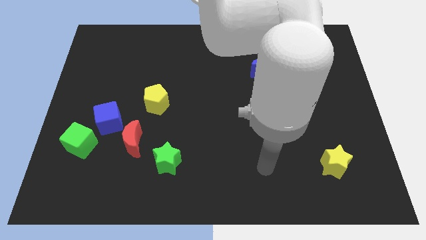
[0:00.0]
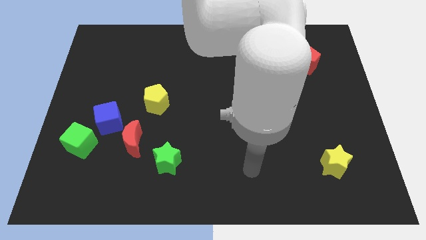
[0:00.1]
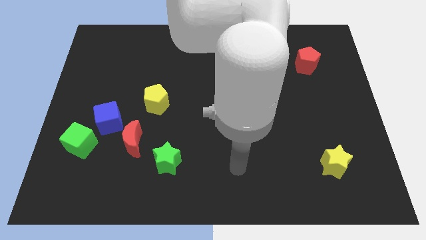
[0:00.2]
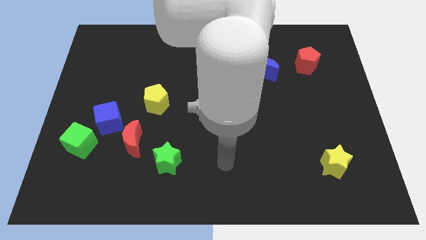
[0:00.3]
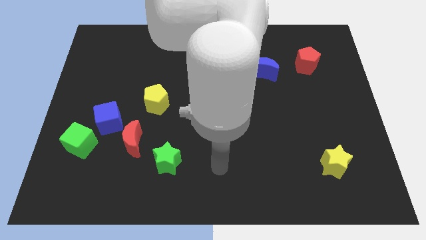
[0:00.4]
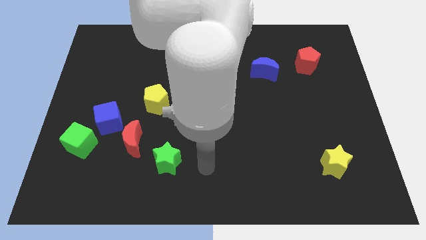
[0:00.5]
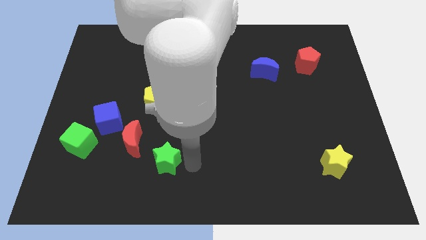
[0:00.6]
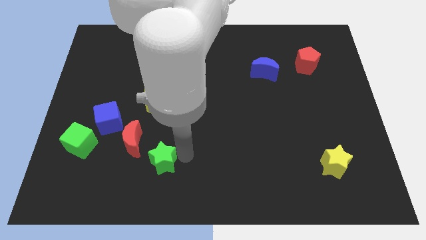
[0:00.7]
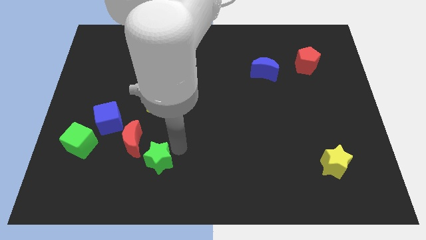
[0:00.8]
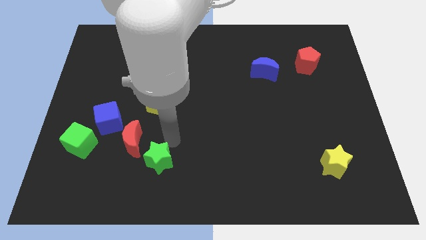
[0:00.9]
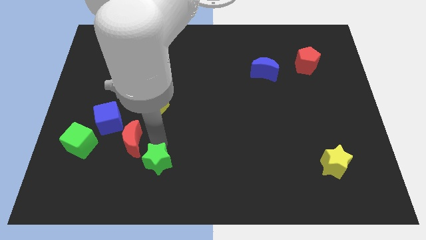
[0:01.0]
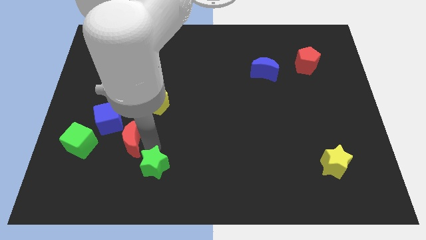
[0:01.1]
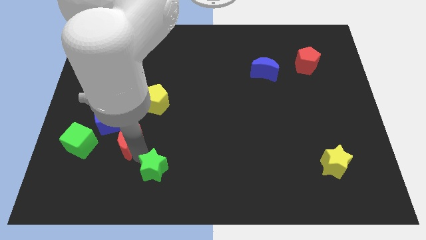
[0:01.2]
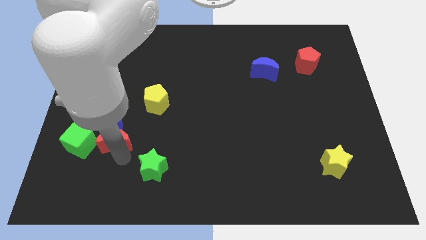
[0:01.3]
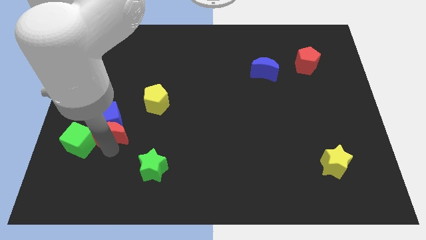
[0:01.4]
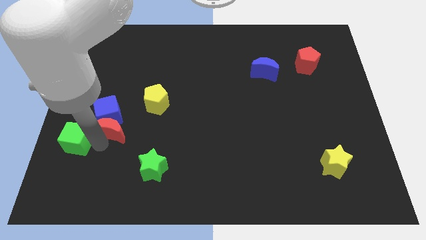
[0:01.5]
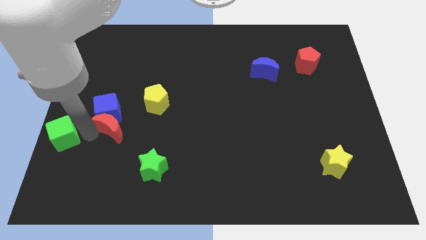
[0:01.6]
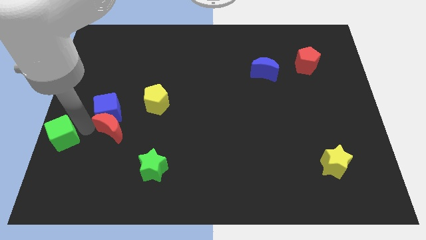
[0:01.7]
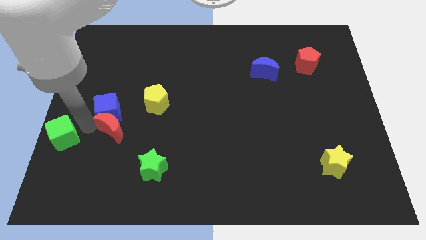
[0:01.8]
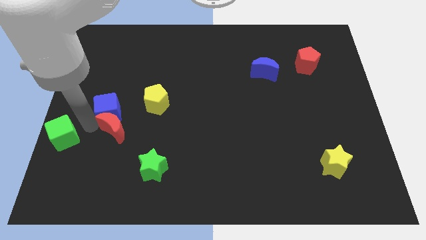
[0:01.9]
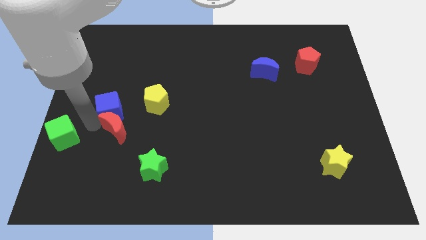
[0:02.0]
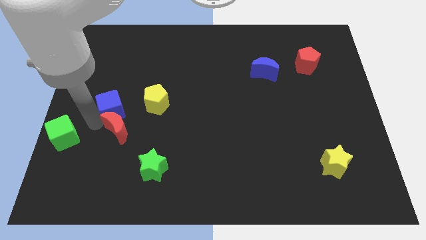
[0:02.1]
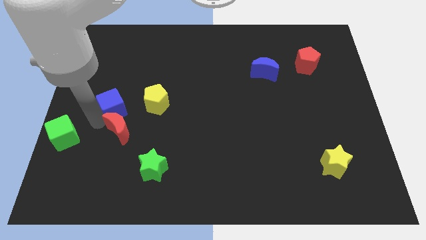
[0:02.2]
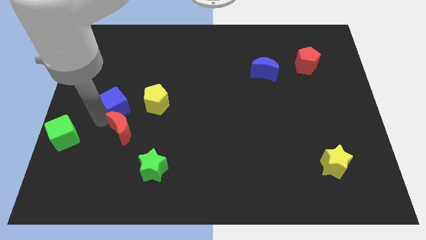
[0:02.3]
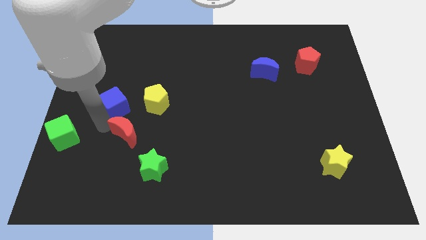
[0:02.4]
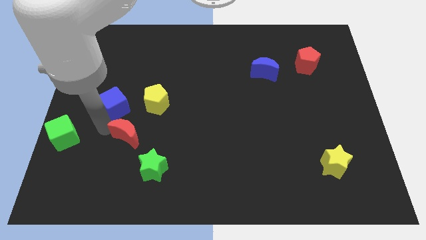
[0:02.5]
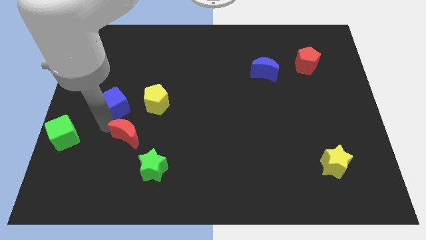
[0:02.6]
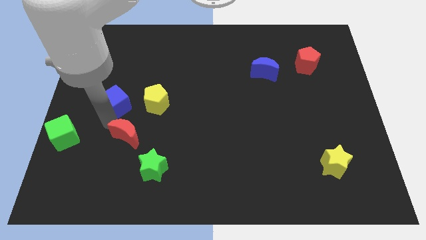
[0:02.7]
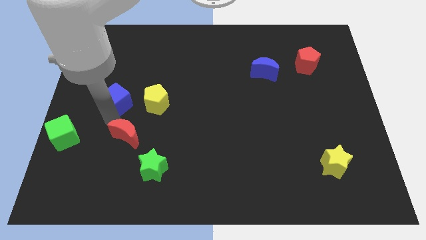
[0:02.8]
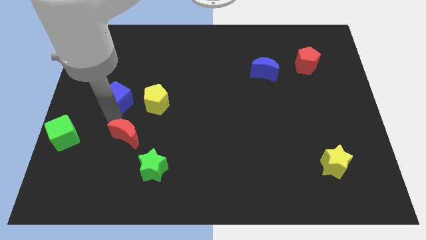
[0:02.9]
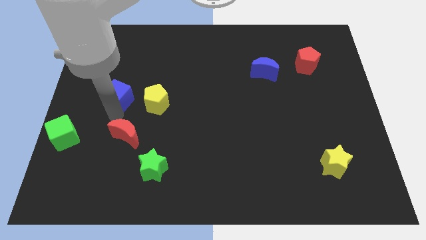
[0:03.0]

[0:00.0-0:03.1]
push the blue cube up somewhat

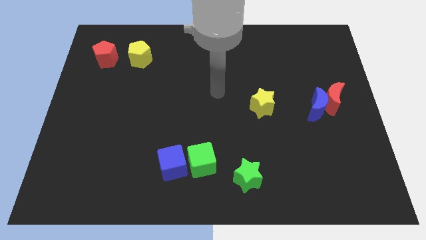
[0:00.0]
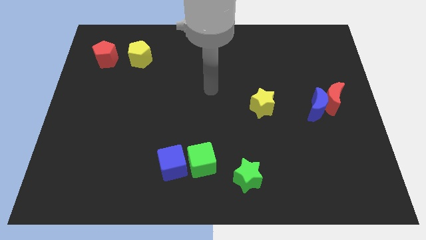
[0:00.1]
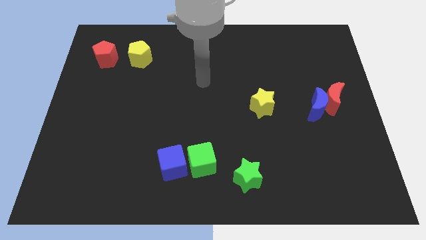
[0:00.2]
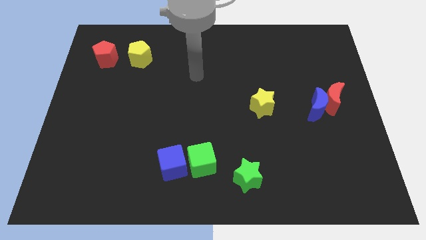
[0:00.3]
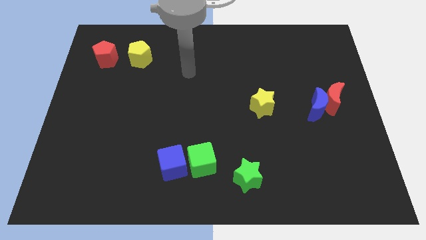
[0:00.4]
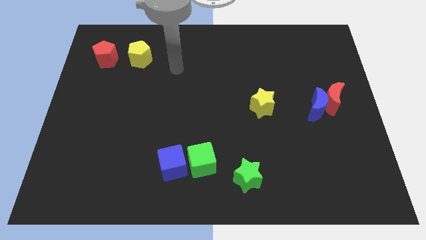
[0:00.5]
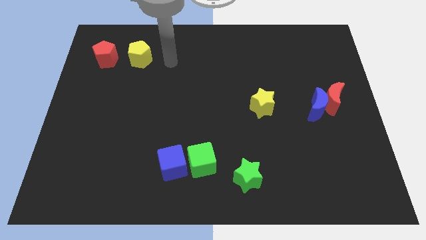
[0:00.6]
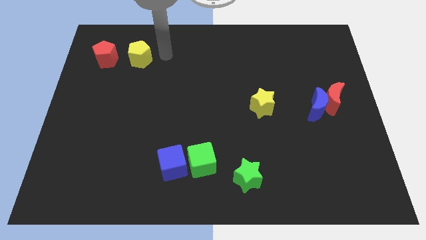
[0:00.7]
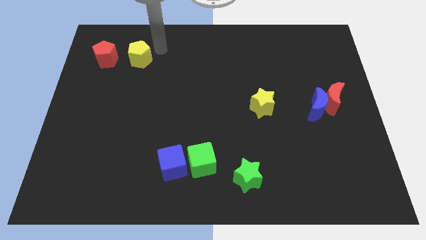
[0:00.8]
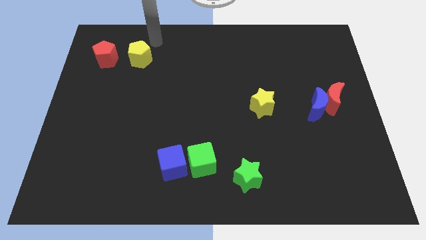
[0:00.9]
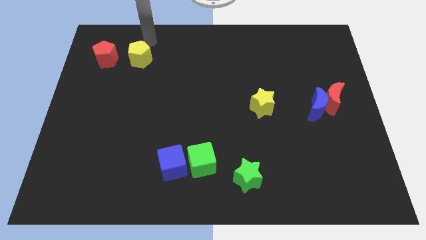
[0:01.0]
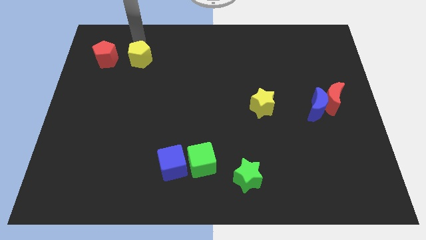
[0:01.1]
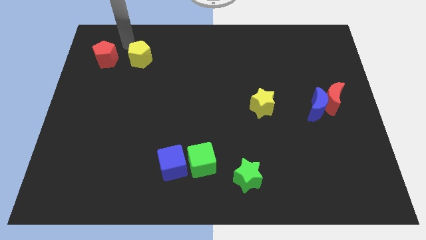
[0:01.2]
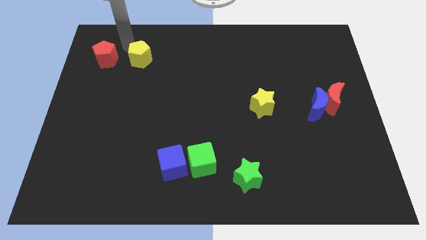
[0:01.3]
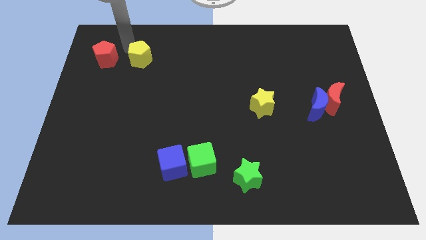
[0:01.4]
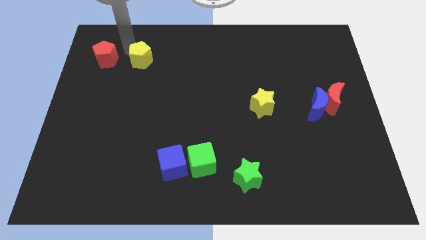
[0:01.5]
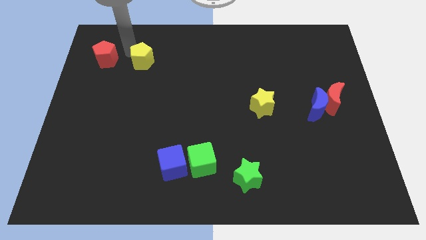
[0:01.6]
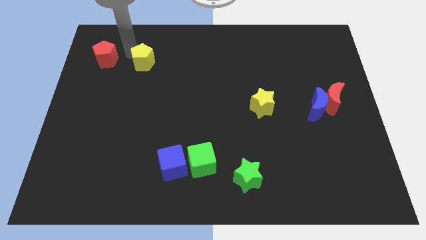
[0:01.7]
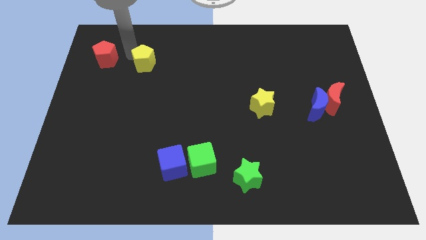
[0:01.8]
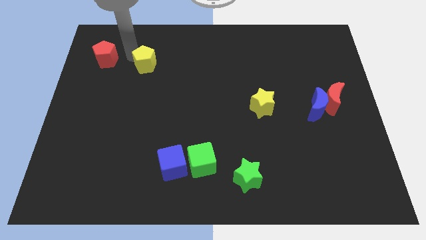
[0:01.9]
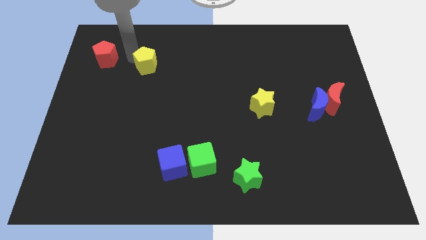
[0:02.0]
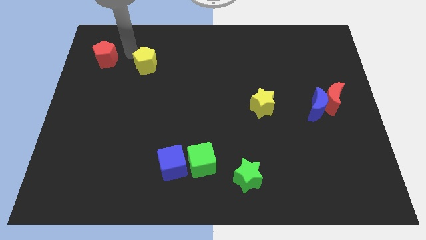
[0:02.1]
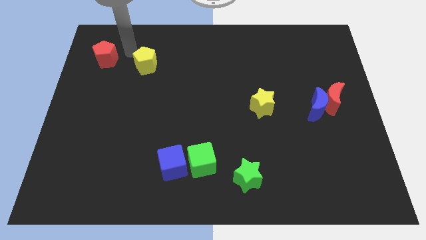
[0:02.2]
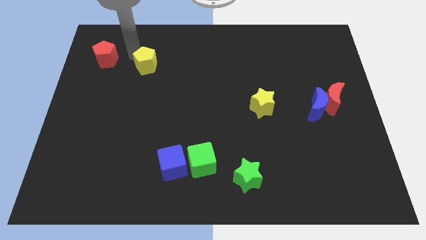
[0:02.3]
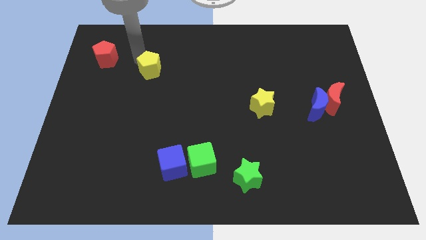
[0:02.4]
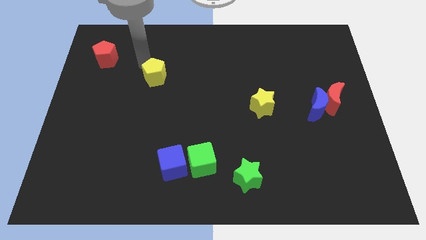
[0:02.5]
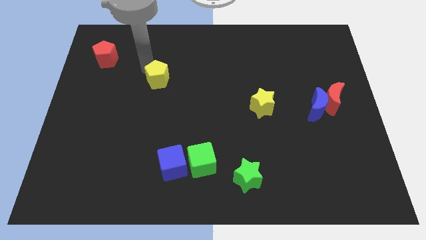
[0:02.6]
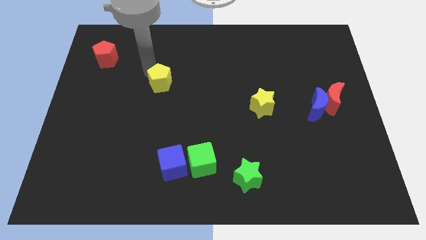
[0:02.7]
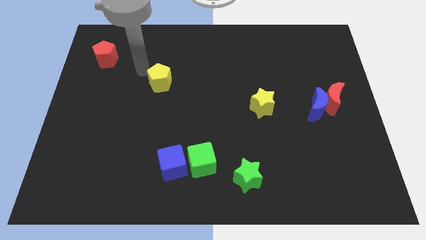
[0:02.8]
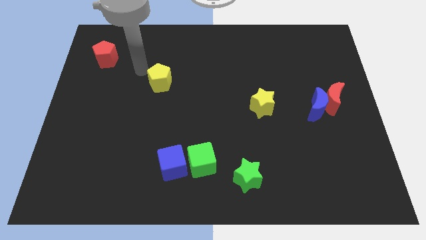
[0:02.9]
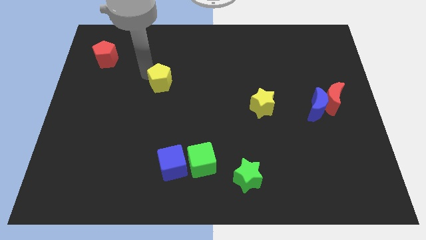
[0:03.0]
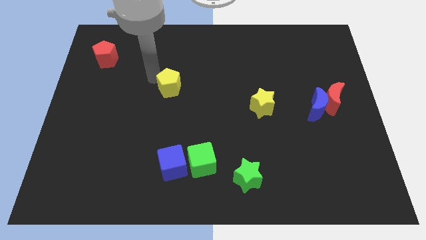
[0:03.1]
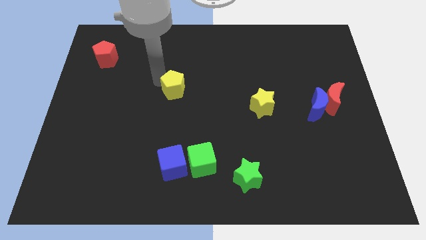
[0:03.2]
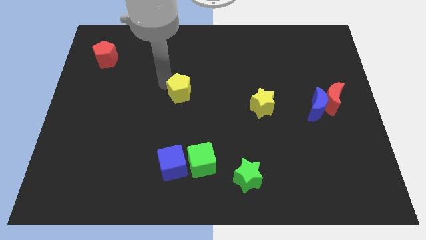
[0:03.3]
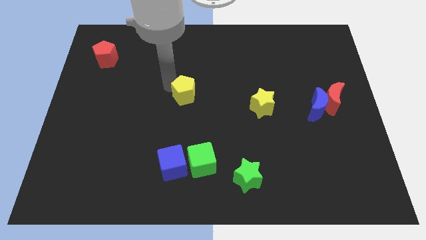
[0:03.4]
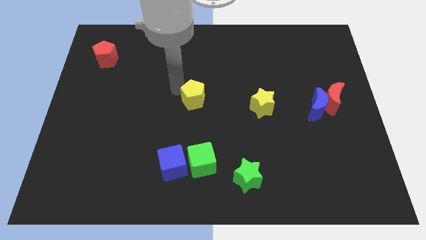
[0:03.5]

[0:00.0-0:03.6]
slide the yellow pentagon down and to the right

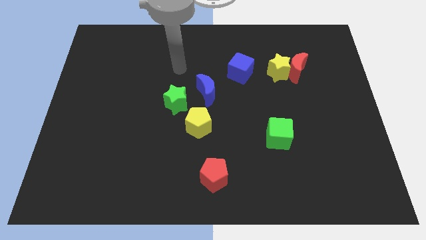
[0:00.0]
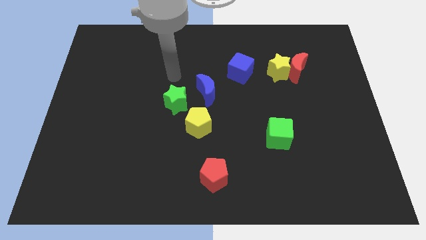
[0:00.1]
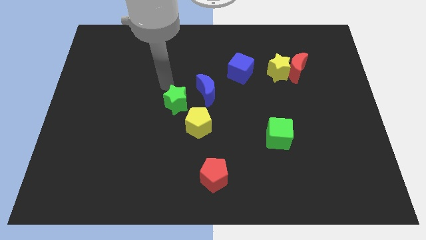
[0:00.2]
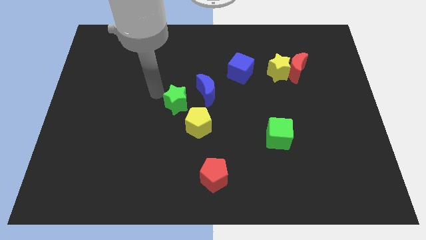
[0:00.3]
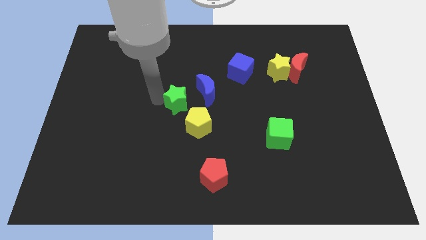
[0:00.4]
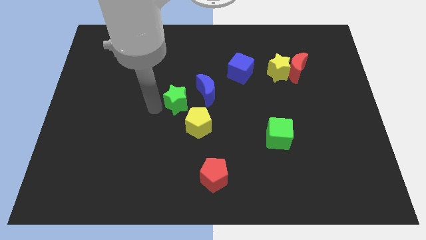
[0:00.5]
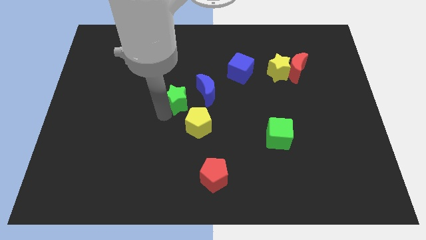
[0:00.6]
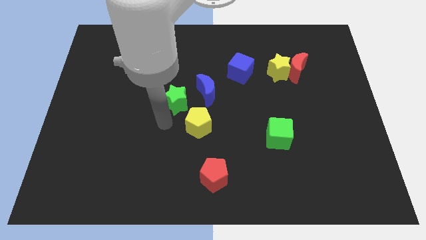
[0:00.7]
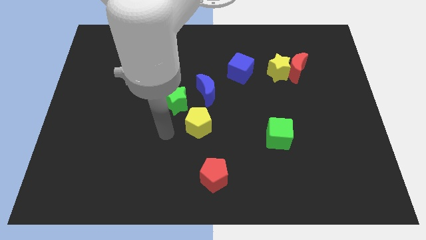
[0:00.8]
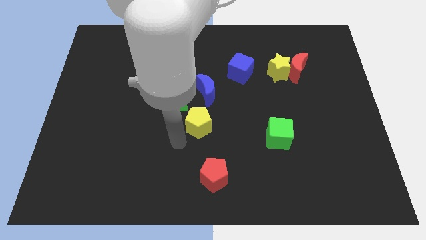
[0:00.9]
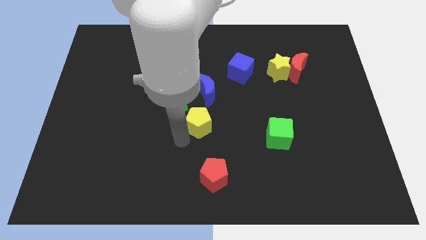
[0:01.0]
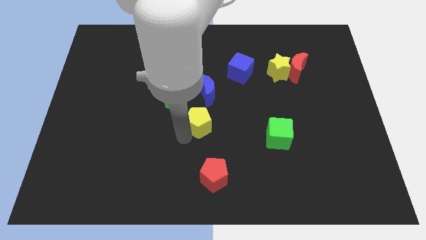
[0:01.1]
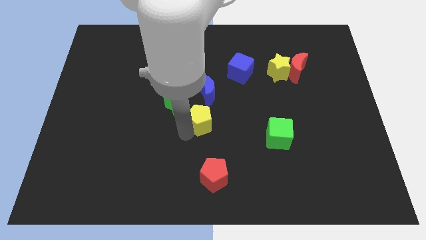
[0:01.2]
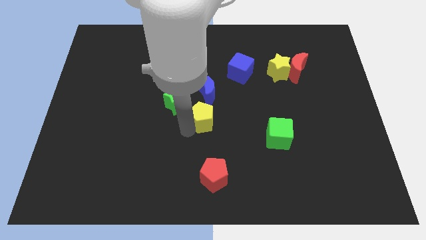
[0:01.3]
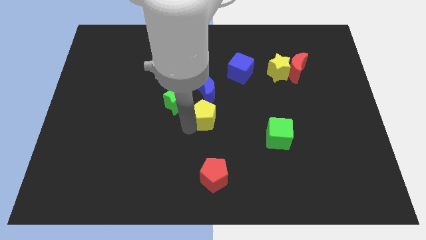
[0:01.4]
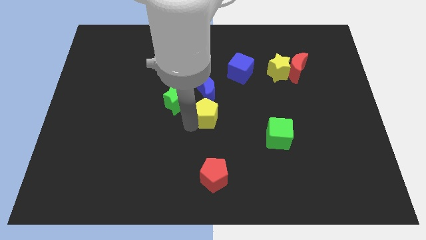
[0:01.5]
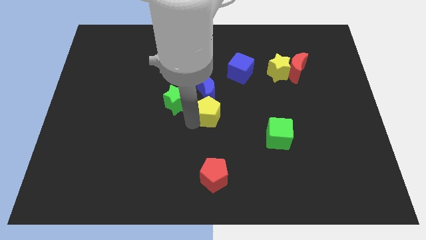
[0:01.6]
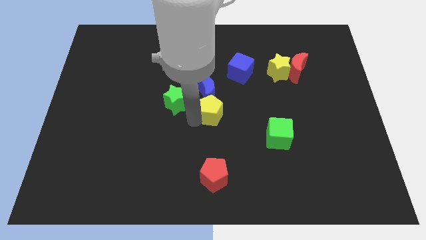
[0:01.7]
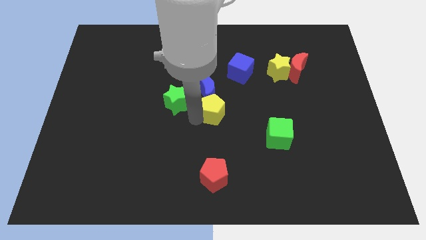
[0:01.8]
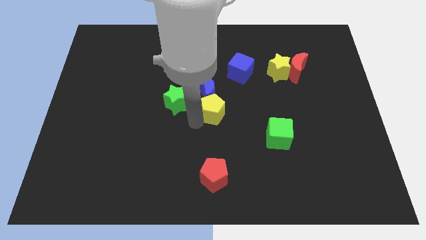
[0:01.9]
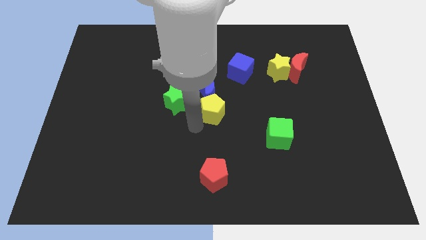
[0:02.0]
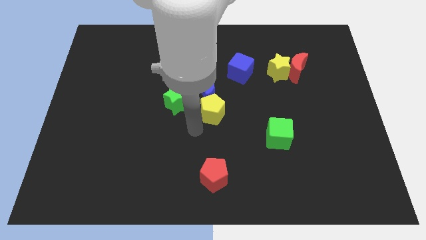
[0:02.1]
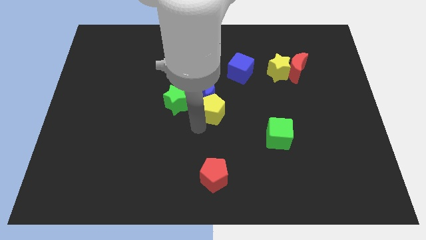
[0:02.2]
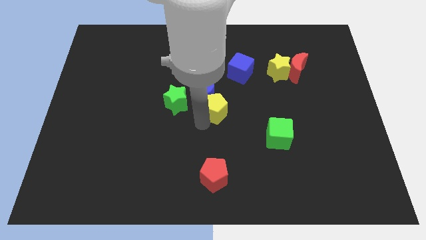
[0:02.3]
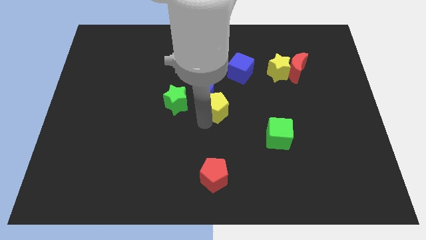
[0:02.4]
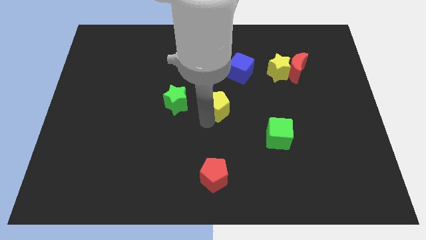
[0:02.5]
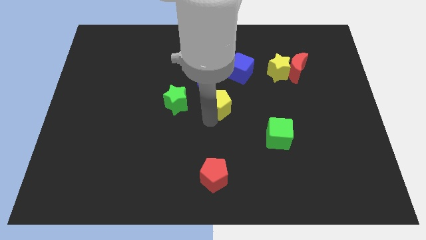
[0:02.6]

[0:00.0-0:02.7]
slide the yellow pentagon upwards and to the right a little
